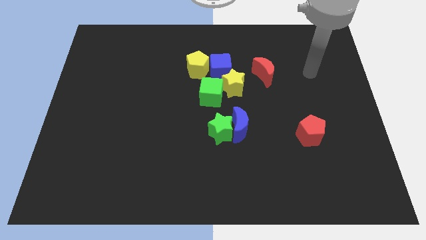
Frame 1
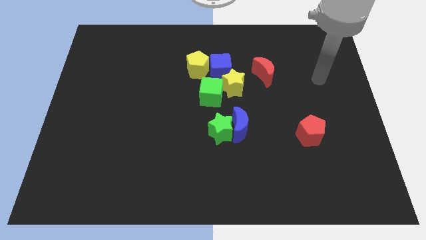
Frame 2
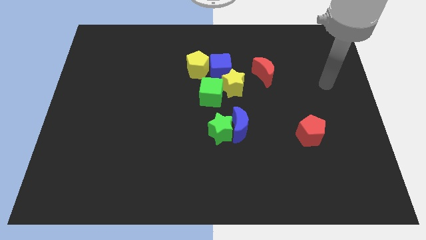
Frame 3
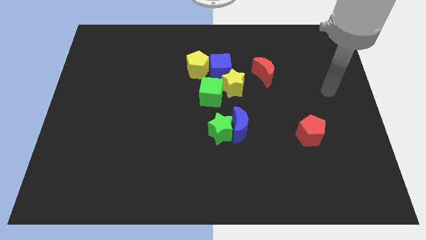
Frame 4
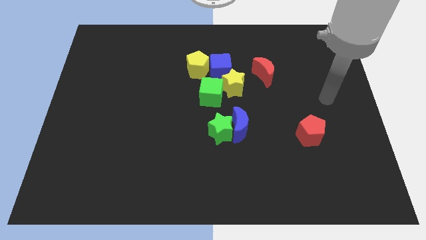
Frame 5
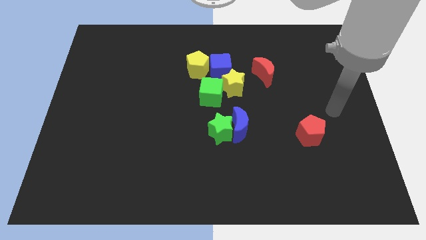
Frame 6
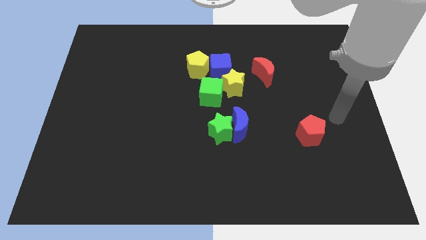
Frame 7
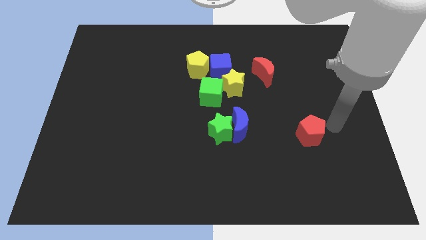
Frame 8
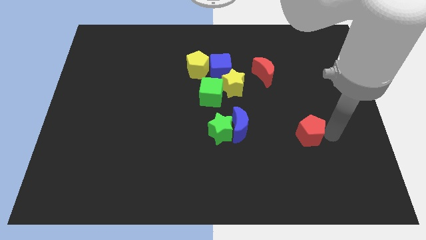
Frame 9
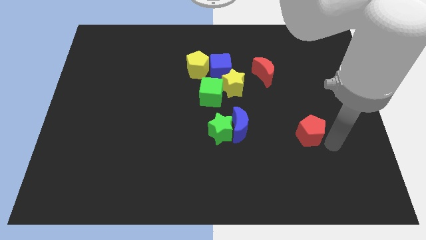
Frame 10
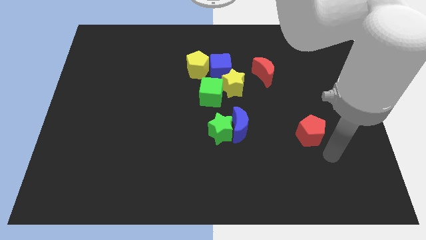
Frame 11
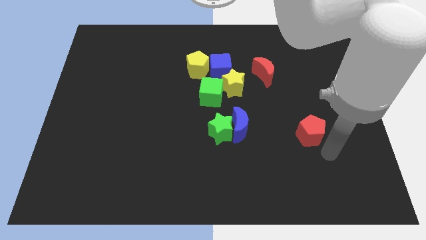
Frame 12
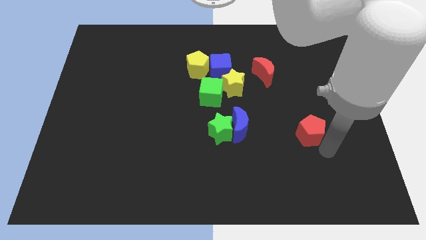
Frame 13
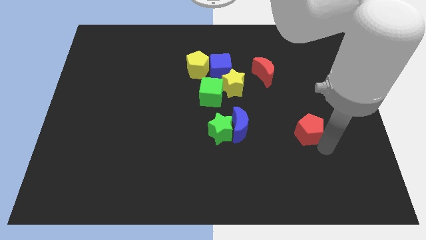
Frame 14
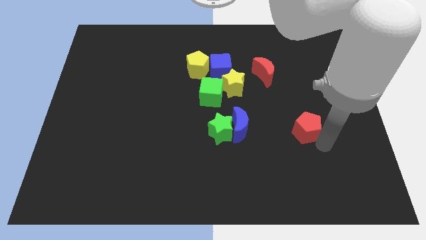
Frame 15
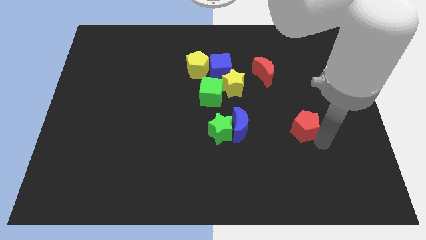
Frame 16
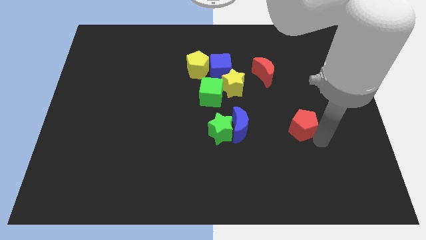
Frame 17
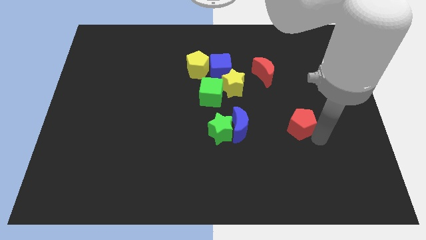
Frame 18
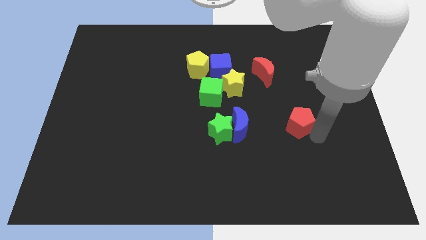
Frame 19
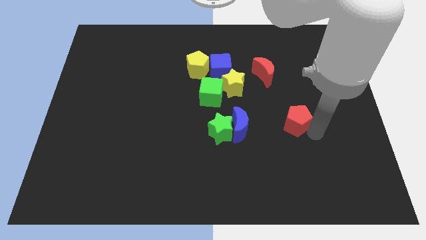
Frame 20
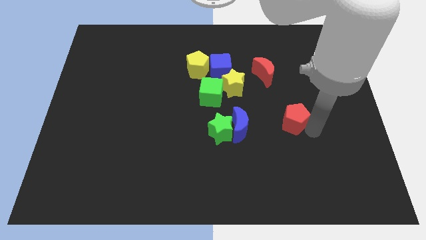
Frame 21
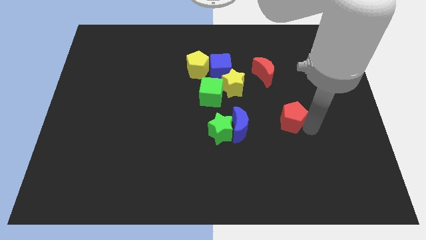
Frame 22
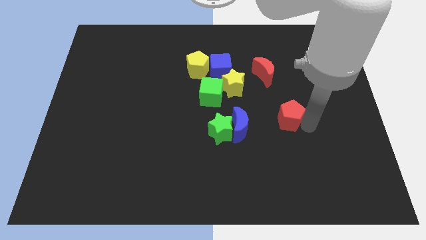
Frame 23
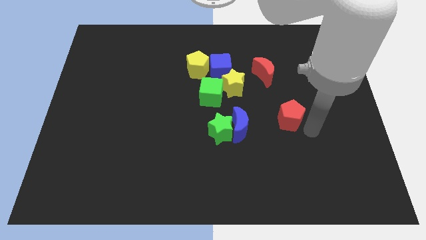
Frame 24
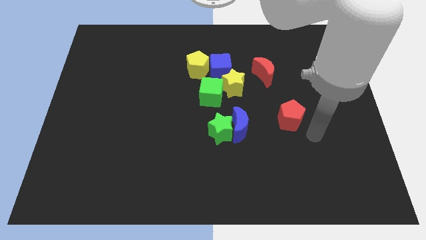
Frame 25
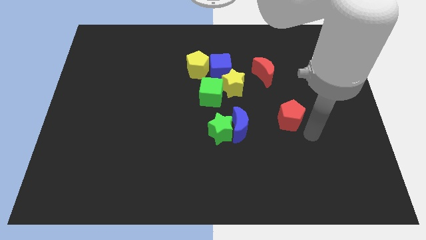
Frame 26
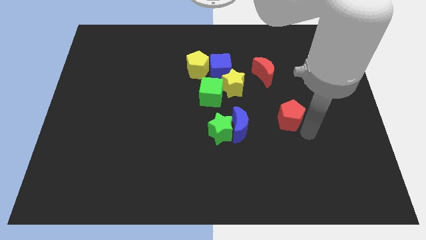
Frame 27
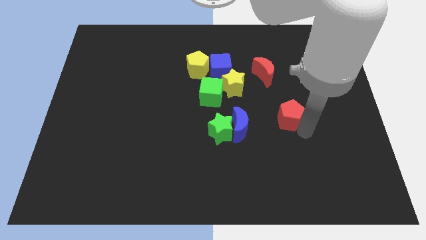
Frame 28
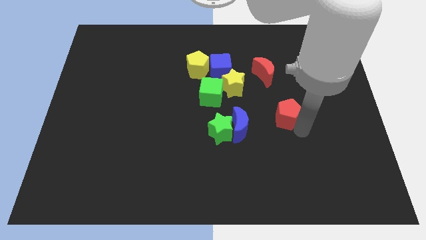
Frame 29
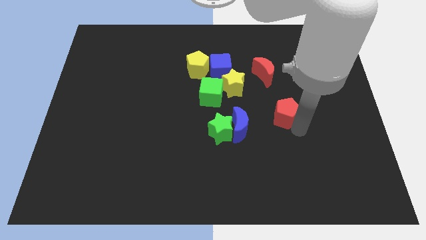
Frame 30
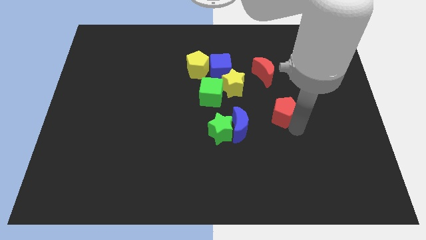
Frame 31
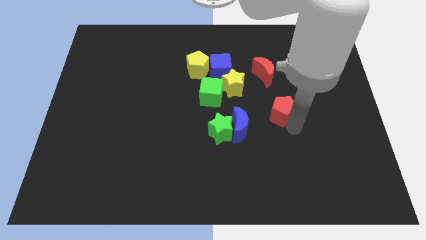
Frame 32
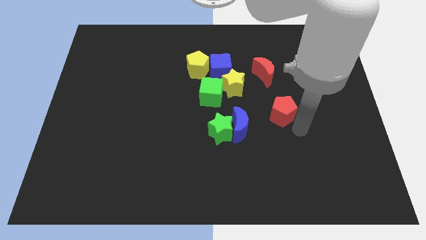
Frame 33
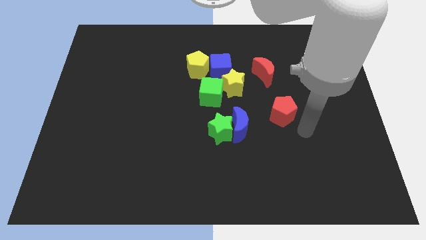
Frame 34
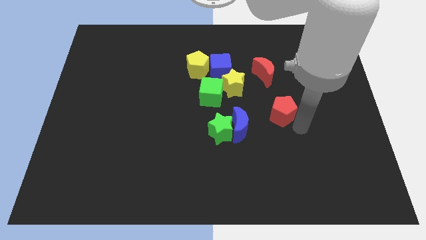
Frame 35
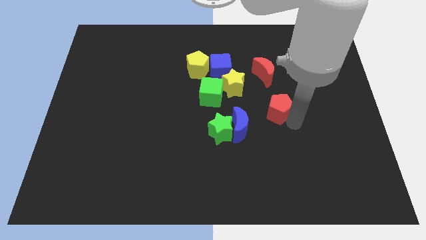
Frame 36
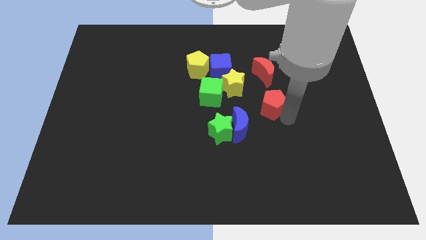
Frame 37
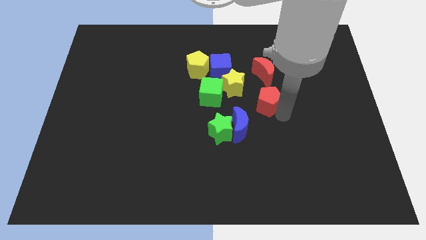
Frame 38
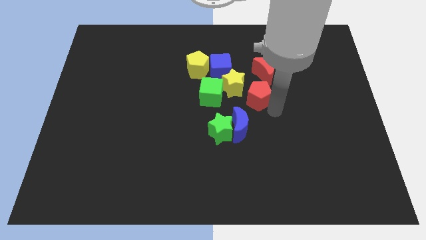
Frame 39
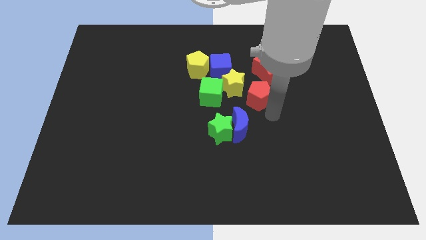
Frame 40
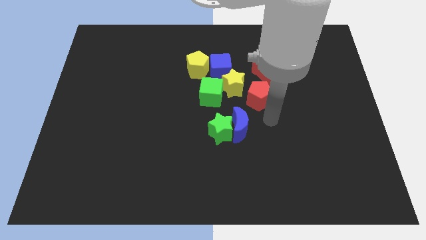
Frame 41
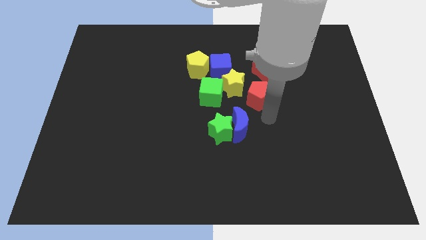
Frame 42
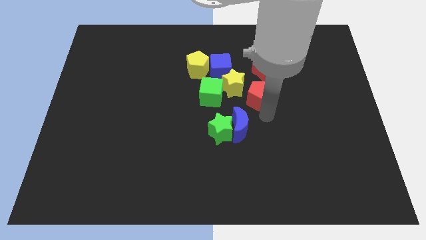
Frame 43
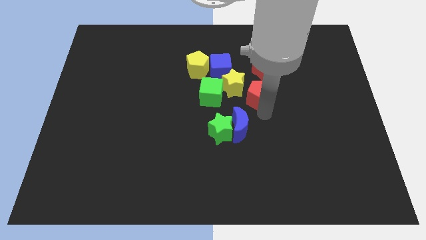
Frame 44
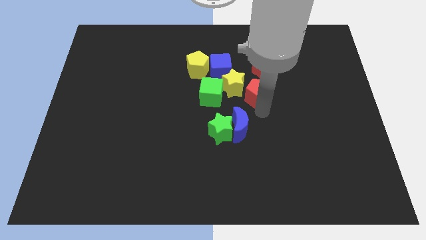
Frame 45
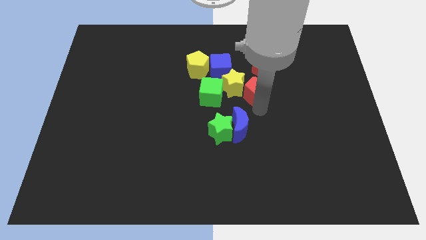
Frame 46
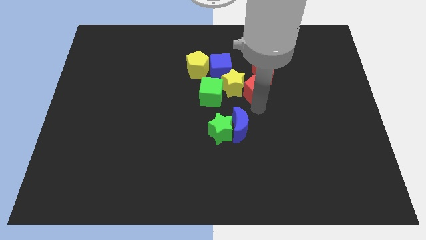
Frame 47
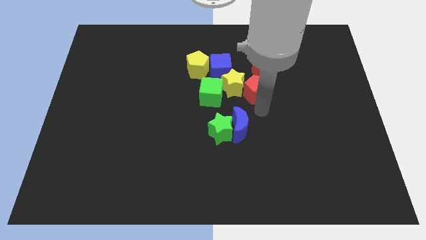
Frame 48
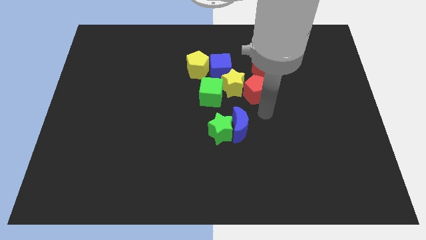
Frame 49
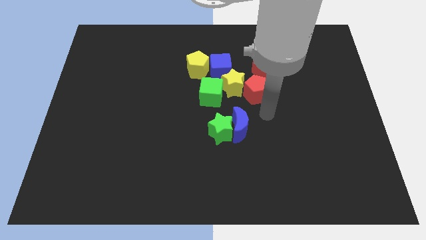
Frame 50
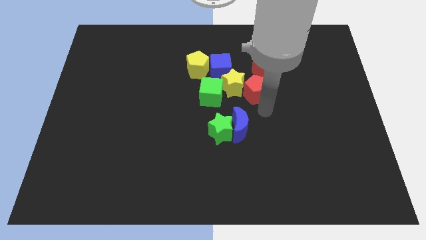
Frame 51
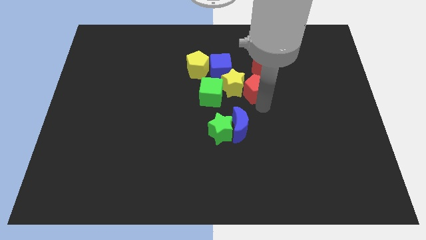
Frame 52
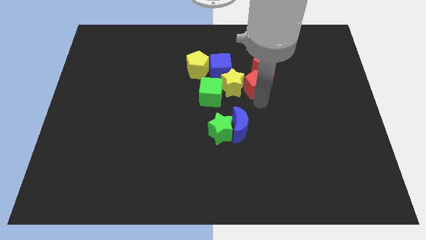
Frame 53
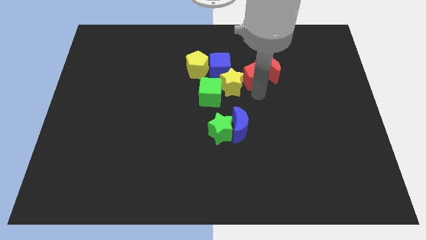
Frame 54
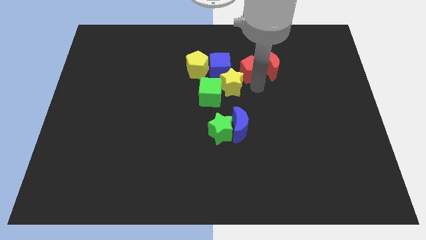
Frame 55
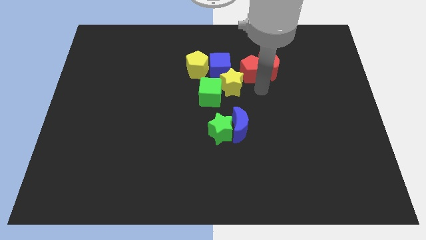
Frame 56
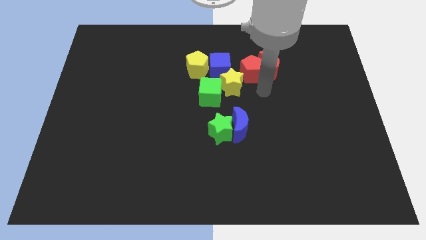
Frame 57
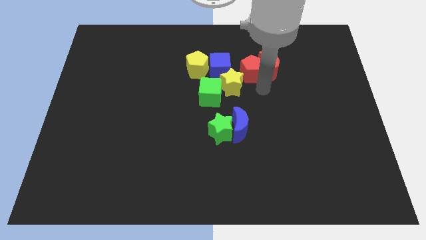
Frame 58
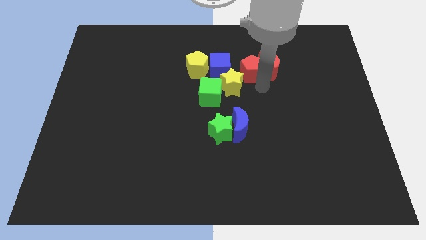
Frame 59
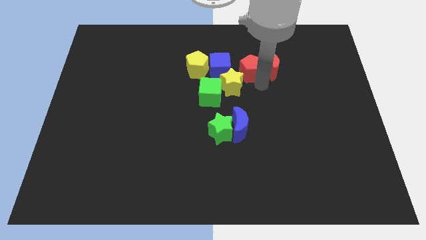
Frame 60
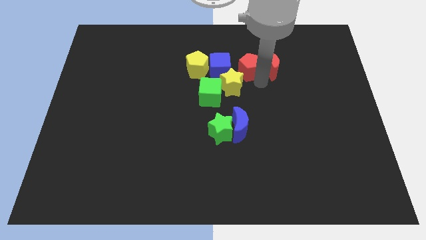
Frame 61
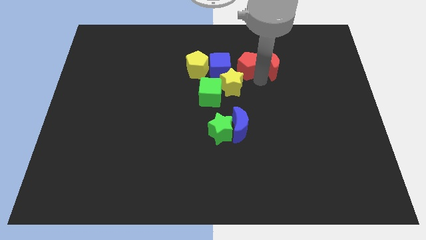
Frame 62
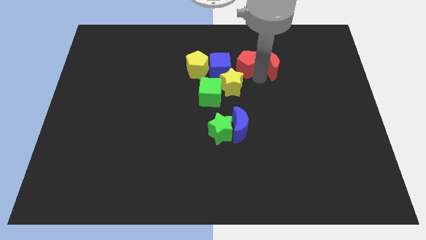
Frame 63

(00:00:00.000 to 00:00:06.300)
move the red pentagon to the top right side of the blue cube

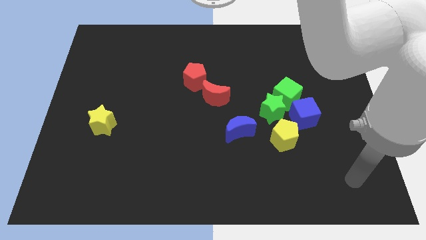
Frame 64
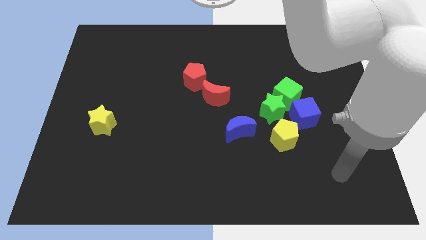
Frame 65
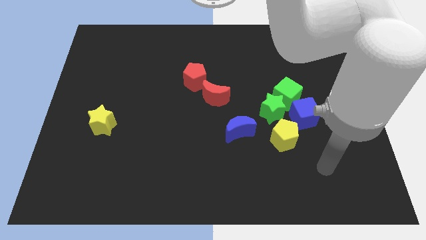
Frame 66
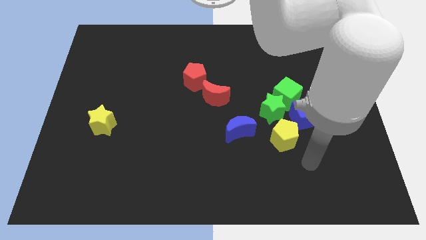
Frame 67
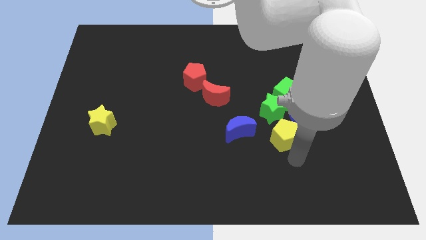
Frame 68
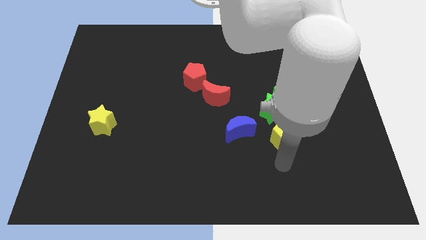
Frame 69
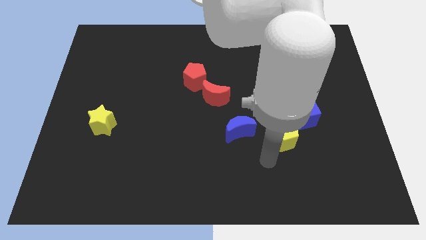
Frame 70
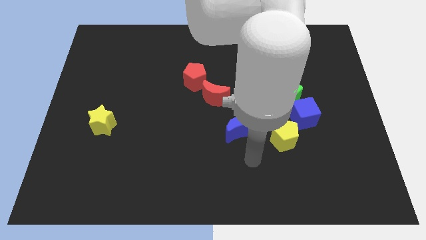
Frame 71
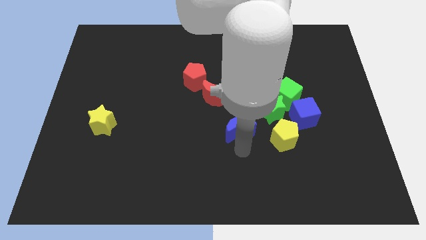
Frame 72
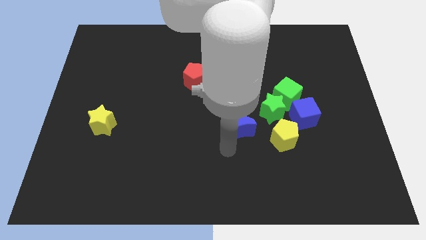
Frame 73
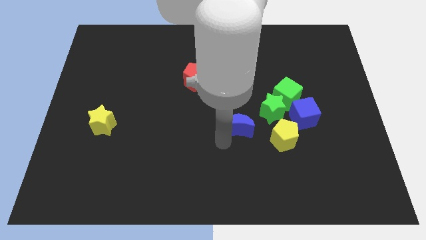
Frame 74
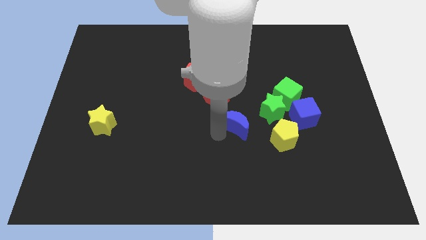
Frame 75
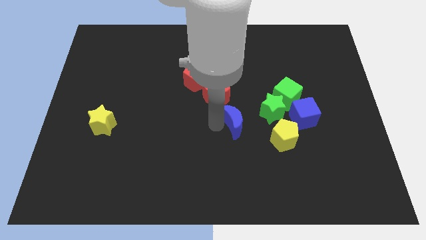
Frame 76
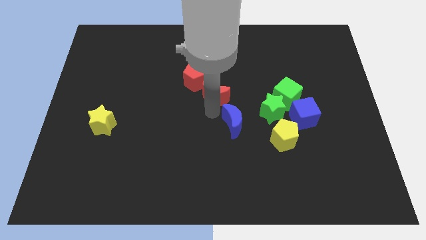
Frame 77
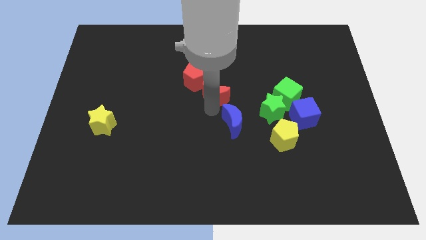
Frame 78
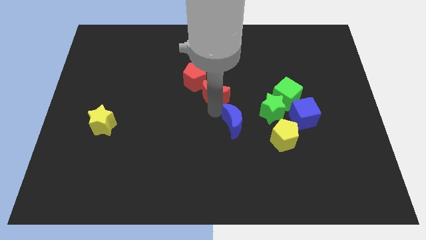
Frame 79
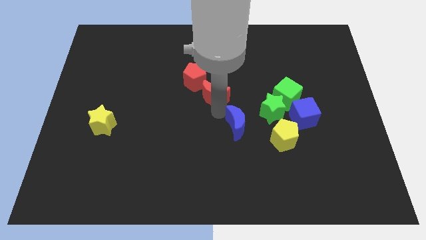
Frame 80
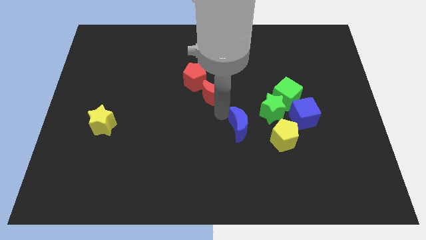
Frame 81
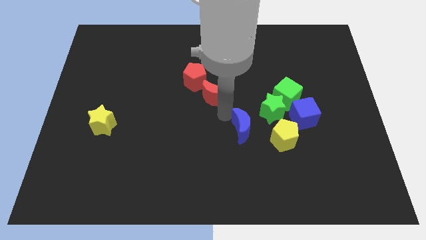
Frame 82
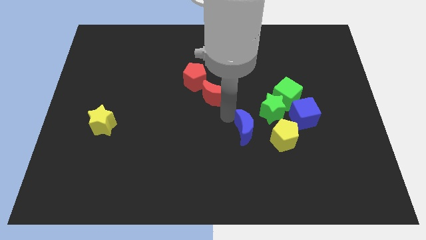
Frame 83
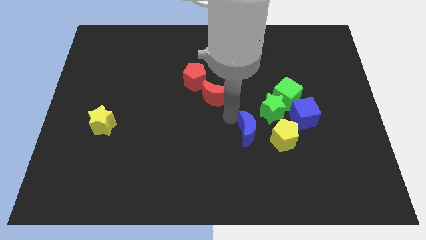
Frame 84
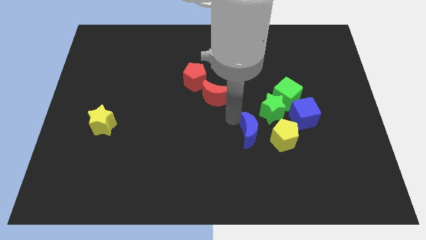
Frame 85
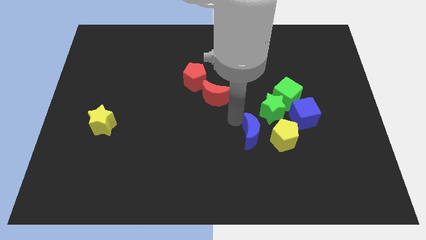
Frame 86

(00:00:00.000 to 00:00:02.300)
move the blue moon to the bottom side of the green star
